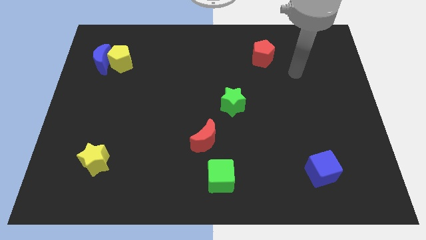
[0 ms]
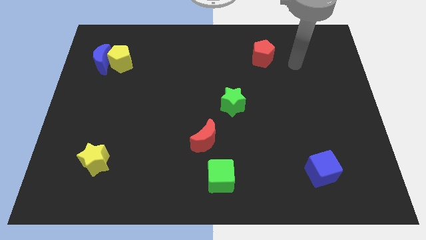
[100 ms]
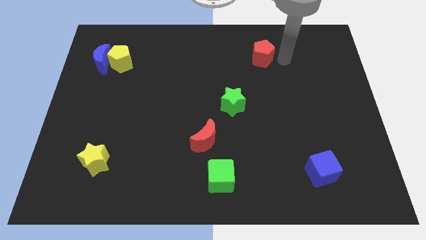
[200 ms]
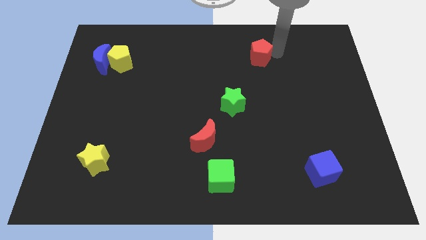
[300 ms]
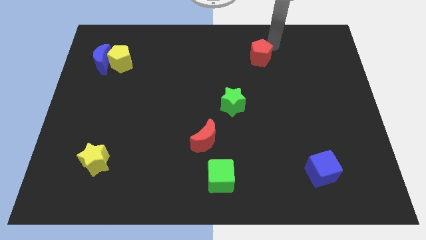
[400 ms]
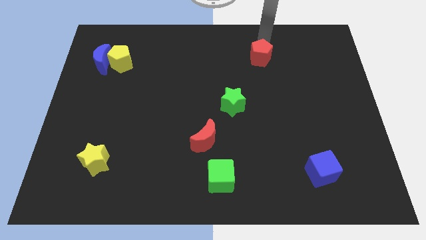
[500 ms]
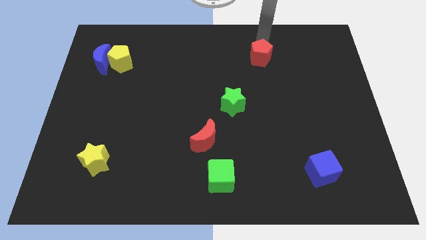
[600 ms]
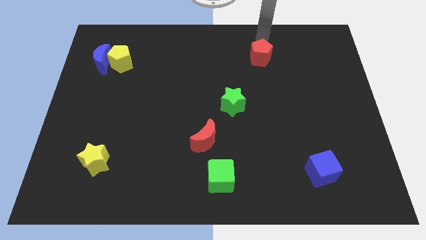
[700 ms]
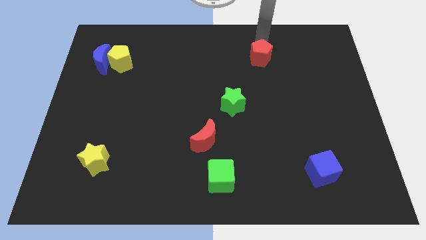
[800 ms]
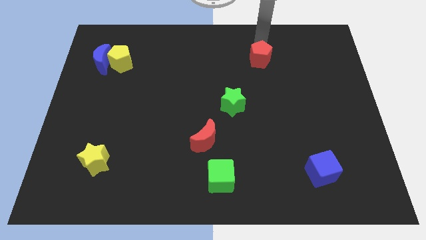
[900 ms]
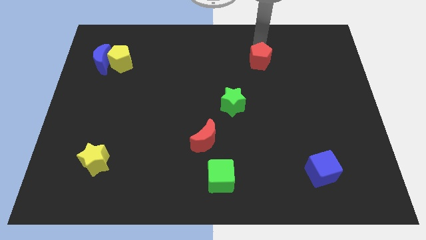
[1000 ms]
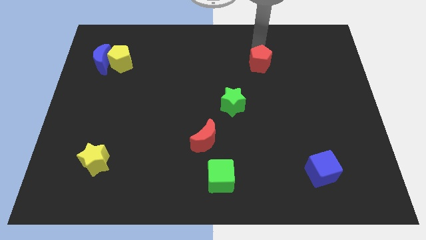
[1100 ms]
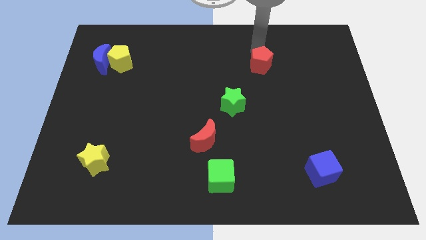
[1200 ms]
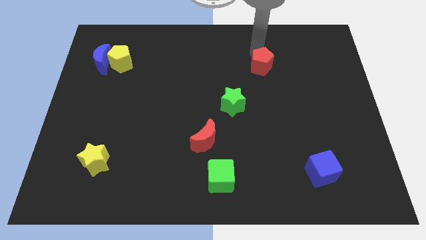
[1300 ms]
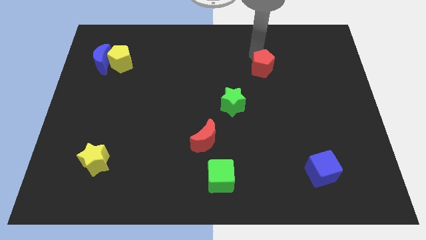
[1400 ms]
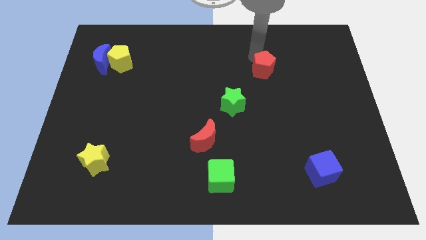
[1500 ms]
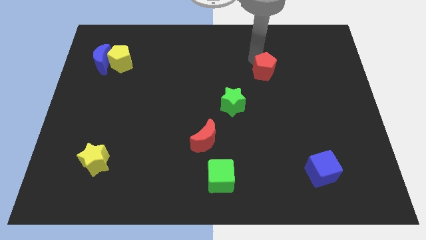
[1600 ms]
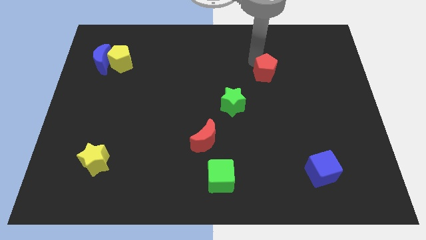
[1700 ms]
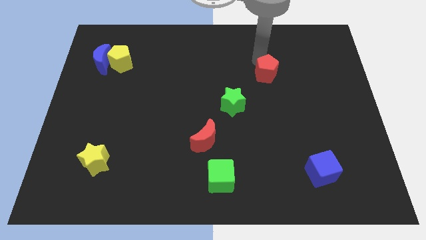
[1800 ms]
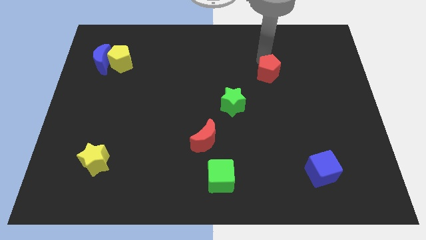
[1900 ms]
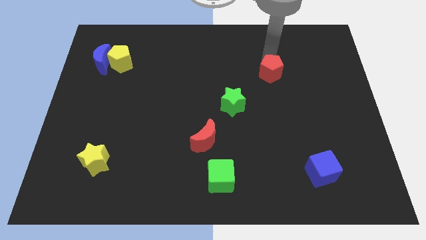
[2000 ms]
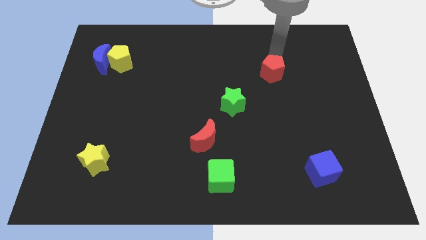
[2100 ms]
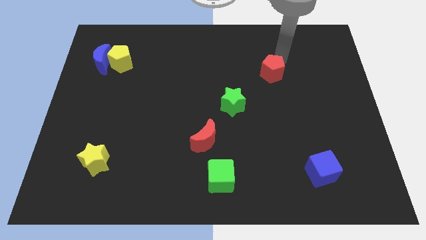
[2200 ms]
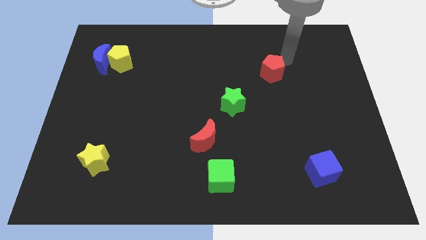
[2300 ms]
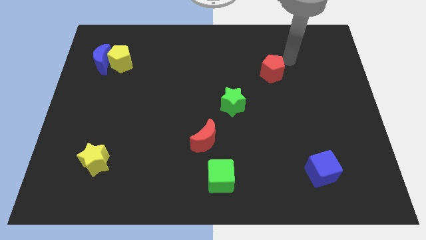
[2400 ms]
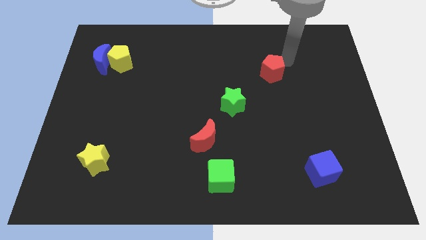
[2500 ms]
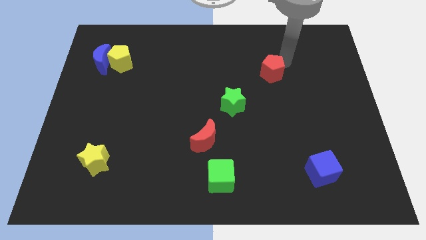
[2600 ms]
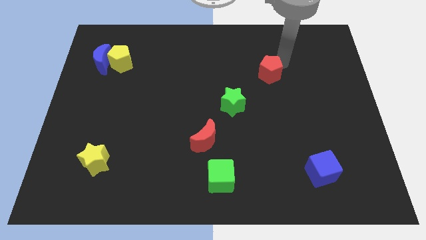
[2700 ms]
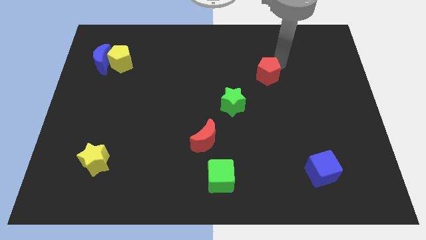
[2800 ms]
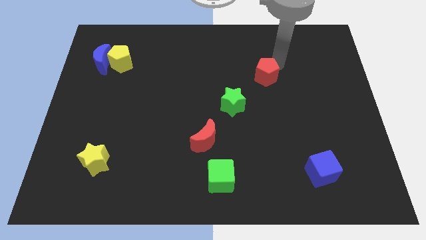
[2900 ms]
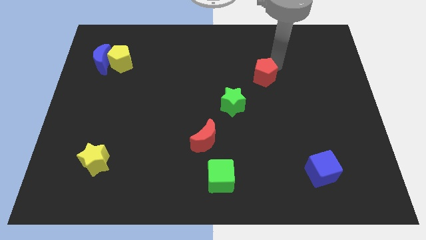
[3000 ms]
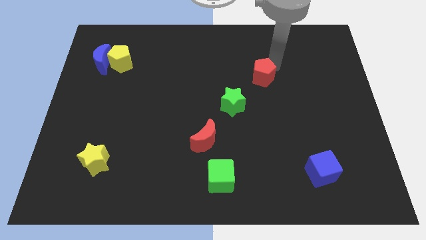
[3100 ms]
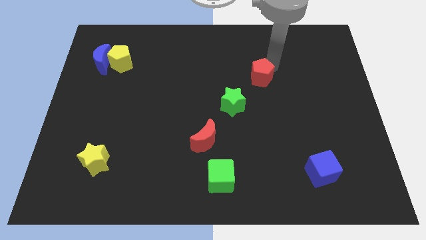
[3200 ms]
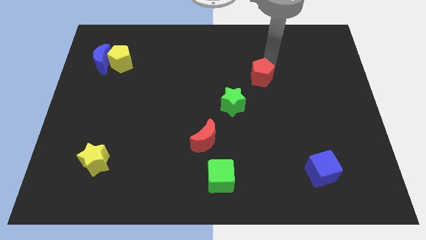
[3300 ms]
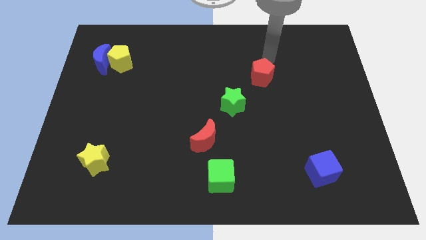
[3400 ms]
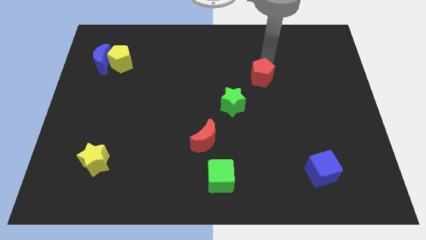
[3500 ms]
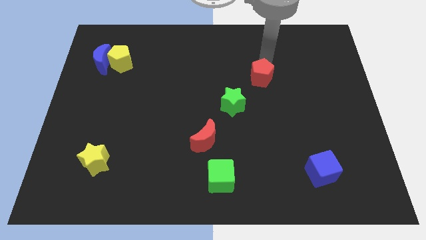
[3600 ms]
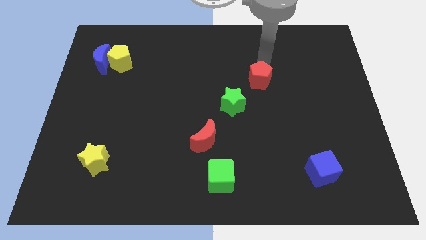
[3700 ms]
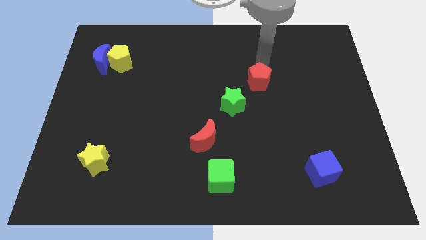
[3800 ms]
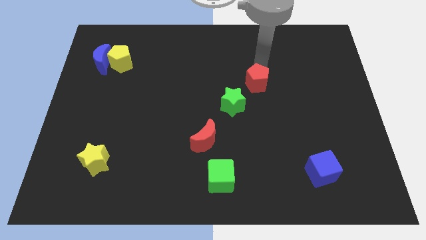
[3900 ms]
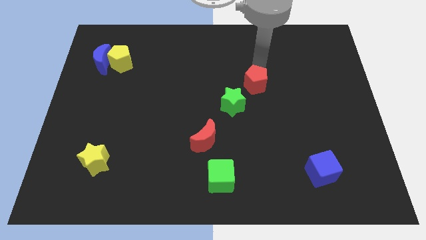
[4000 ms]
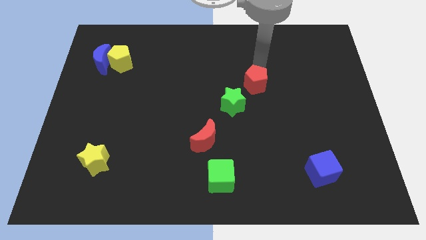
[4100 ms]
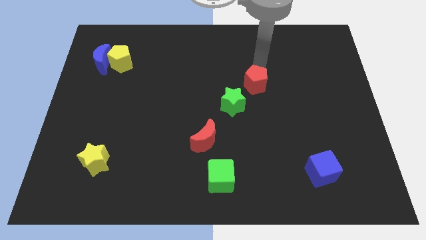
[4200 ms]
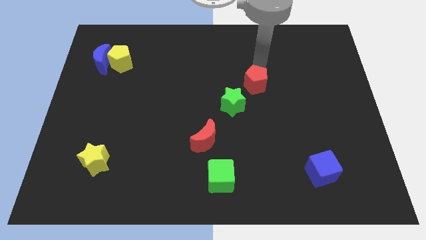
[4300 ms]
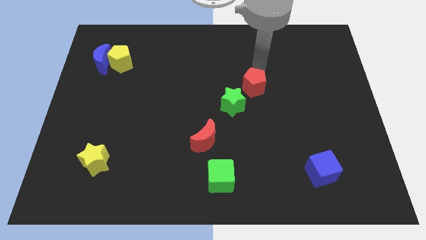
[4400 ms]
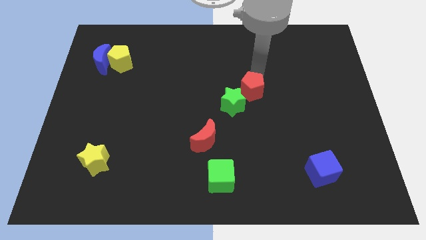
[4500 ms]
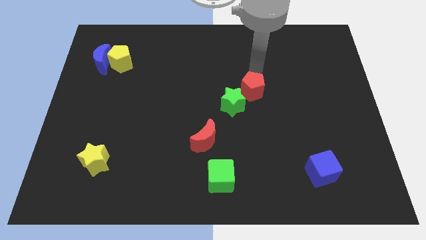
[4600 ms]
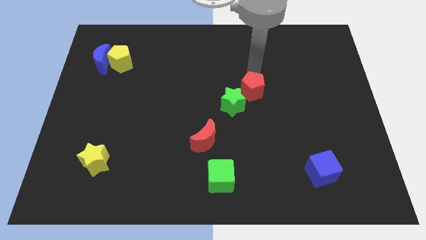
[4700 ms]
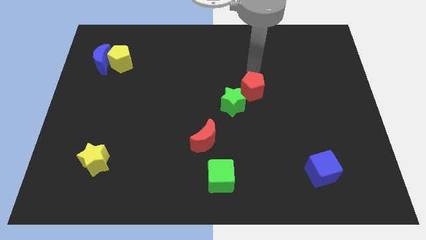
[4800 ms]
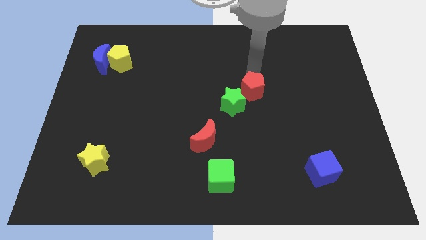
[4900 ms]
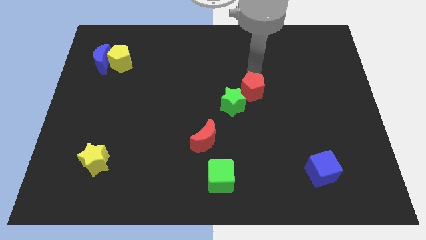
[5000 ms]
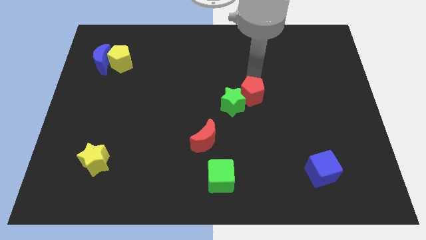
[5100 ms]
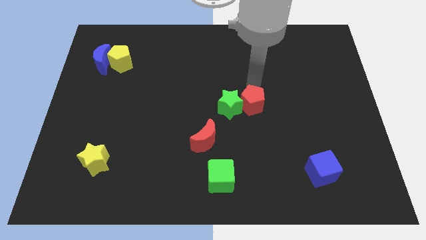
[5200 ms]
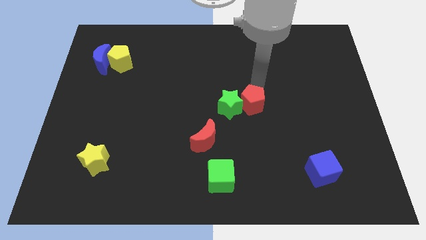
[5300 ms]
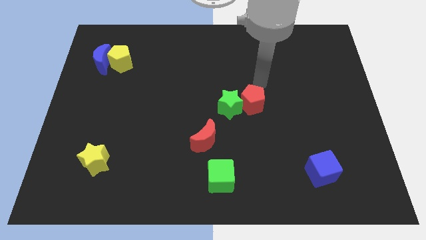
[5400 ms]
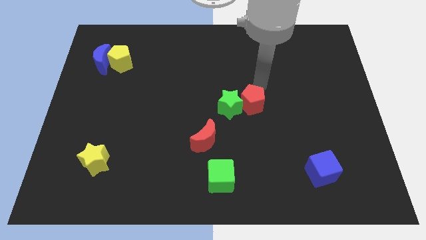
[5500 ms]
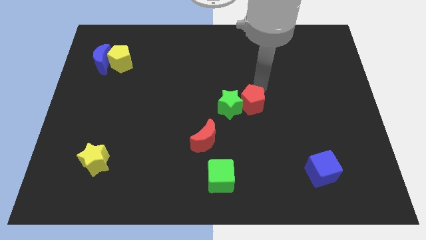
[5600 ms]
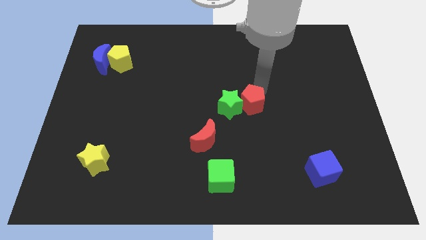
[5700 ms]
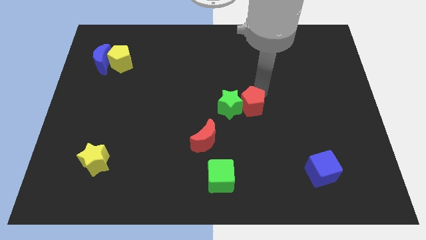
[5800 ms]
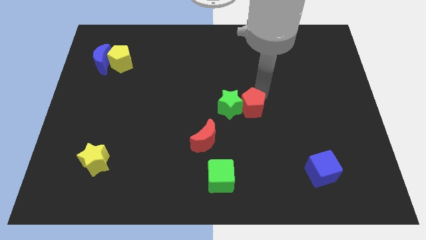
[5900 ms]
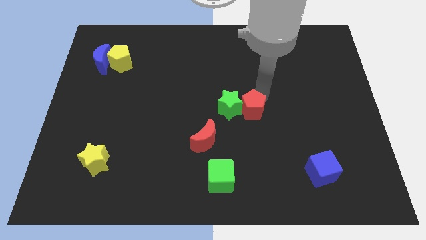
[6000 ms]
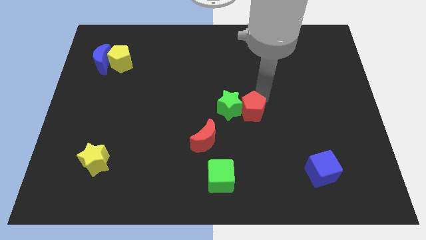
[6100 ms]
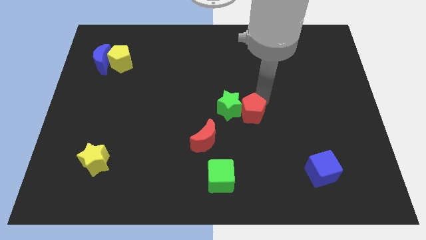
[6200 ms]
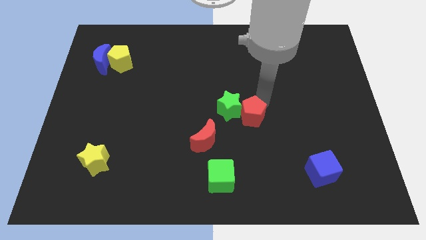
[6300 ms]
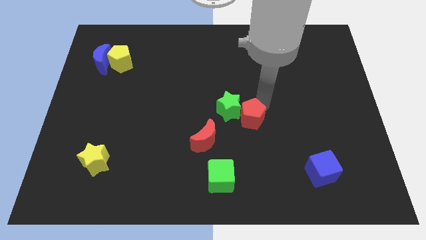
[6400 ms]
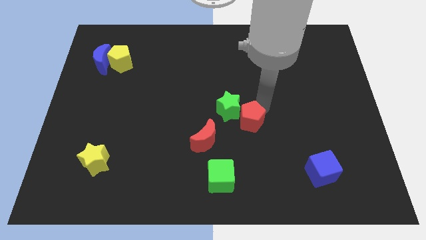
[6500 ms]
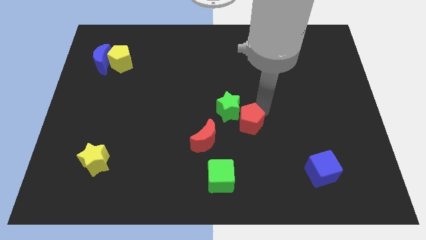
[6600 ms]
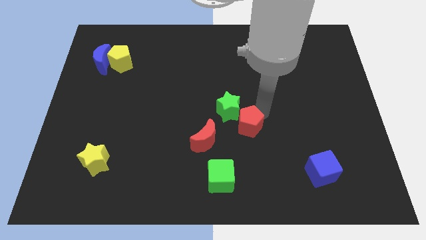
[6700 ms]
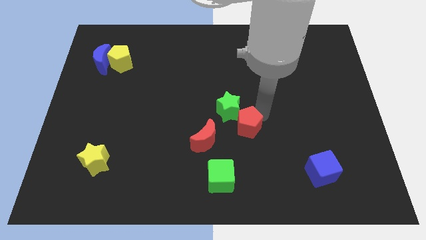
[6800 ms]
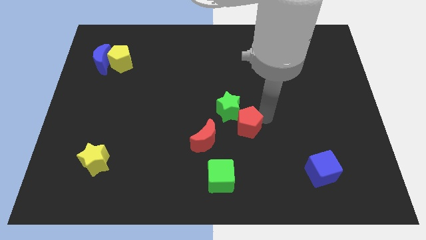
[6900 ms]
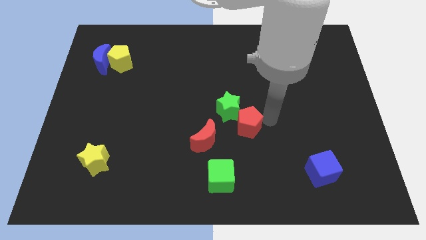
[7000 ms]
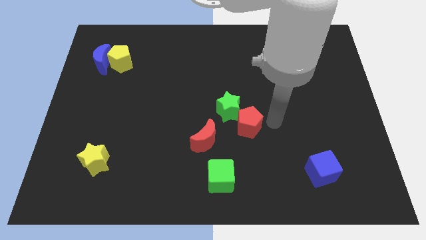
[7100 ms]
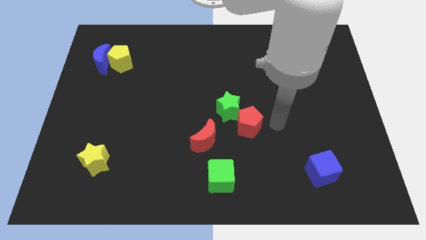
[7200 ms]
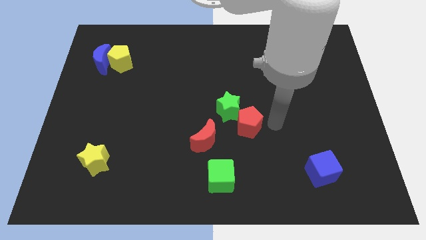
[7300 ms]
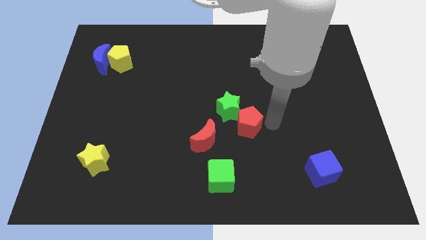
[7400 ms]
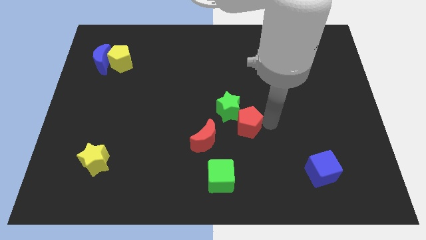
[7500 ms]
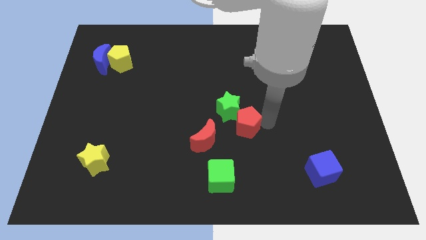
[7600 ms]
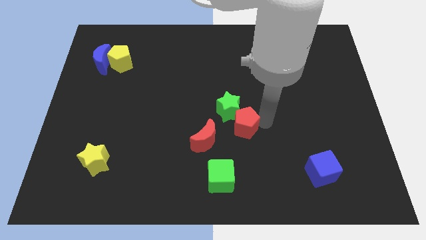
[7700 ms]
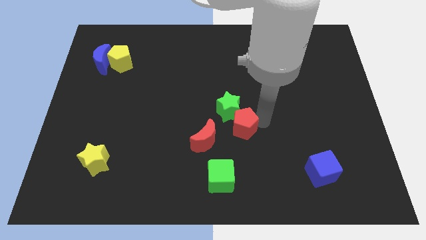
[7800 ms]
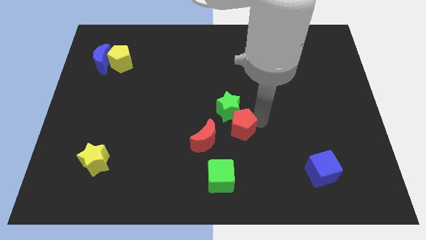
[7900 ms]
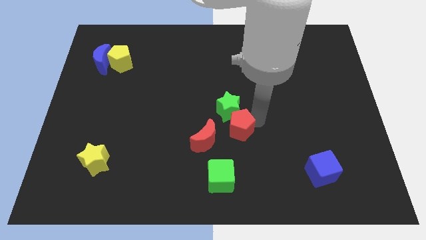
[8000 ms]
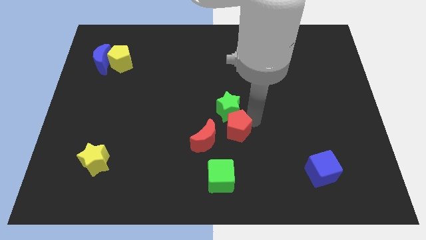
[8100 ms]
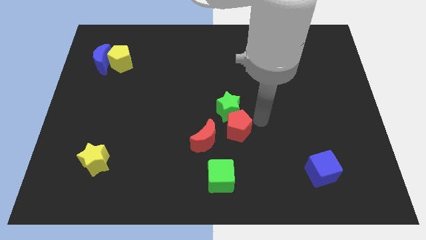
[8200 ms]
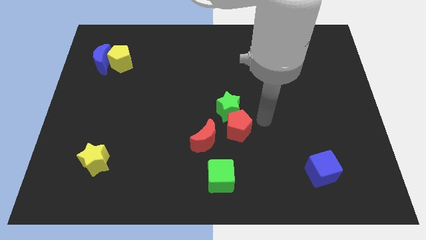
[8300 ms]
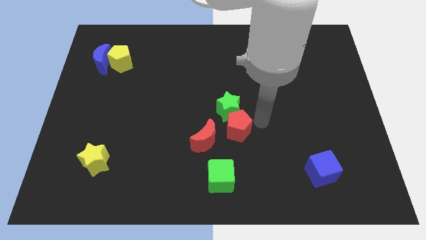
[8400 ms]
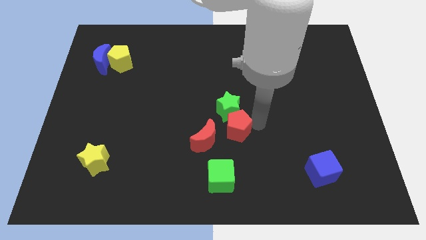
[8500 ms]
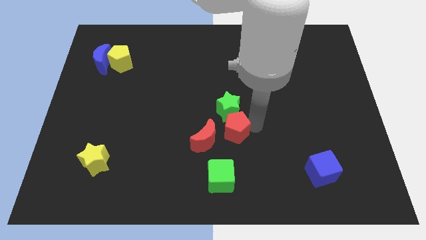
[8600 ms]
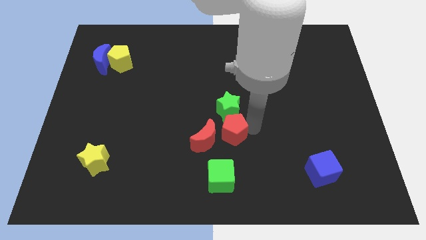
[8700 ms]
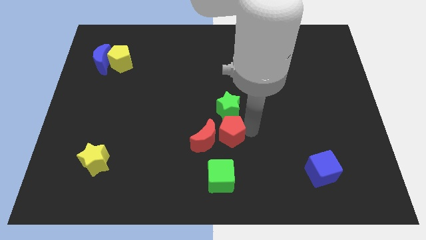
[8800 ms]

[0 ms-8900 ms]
push the red pentagon next to the red moon
